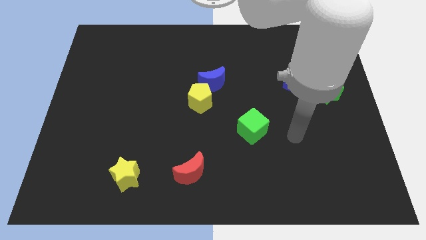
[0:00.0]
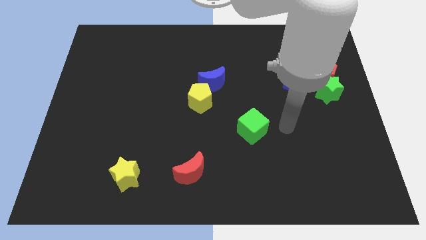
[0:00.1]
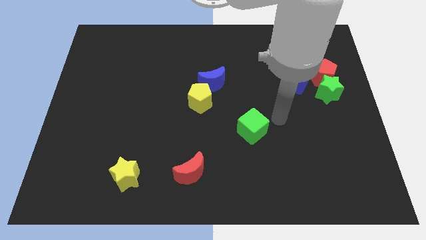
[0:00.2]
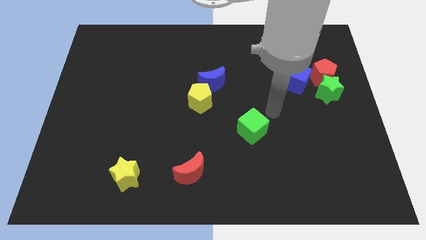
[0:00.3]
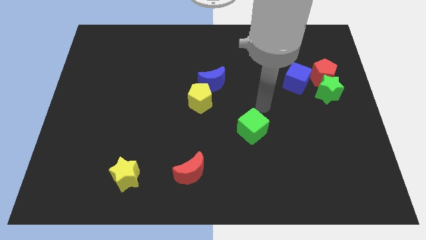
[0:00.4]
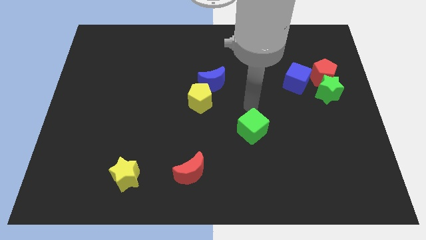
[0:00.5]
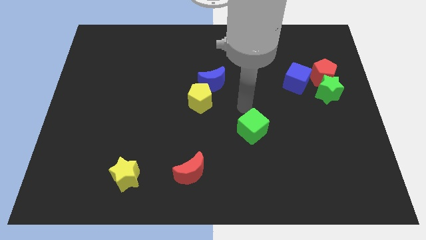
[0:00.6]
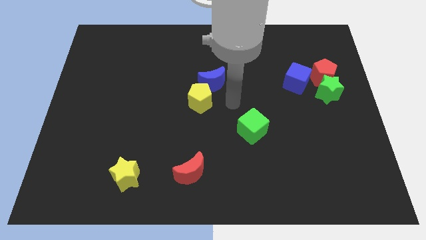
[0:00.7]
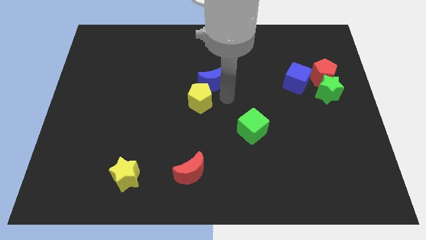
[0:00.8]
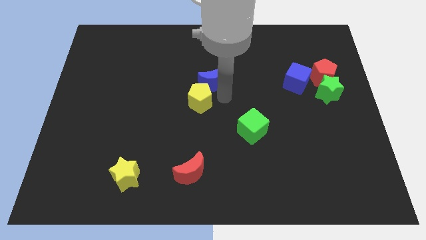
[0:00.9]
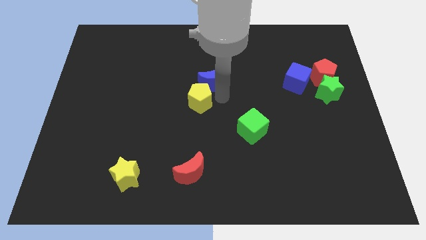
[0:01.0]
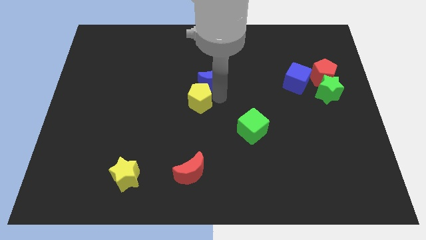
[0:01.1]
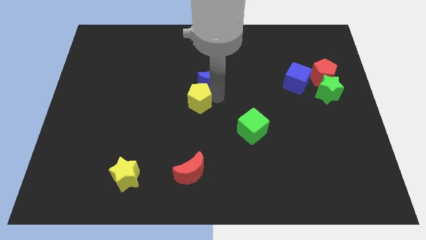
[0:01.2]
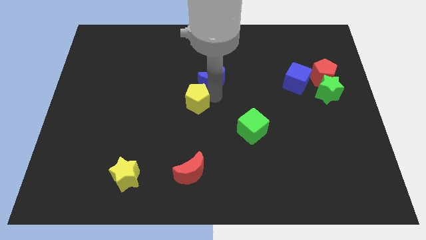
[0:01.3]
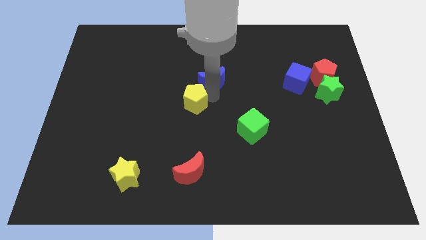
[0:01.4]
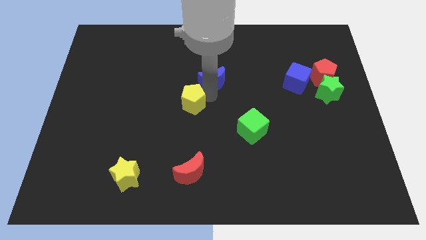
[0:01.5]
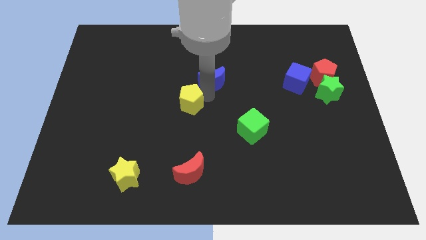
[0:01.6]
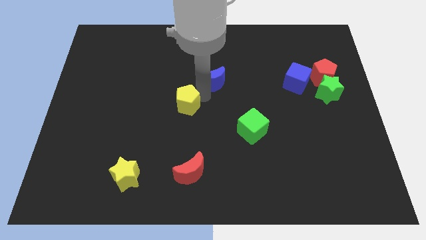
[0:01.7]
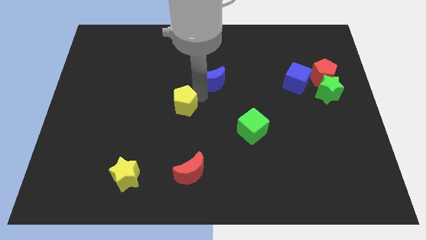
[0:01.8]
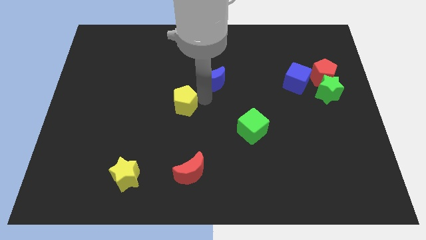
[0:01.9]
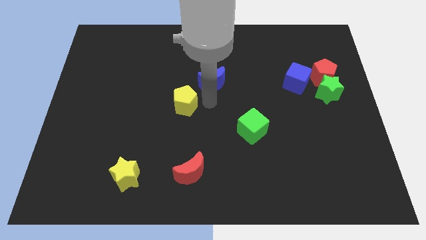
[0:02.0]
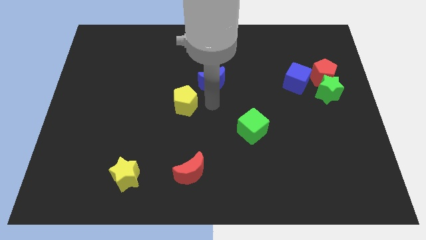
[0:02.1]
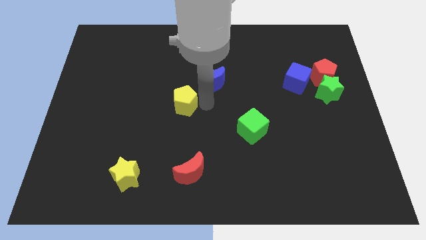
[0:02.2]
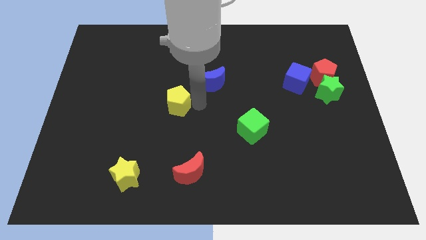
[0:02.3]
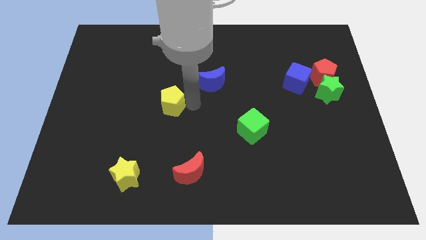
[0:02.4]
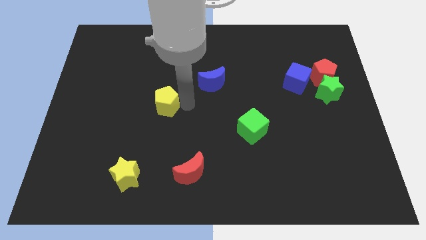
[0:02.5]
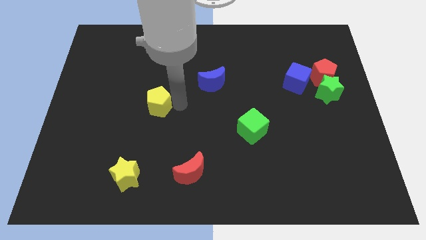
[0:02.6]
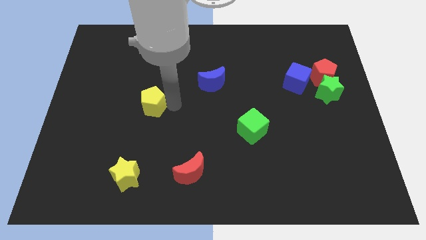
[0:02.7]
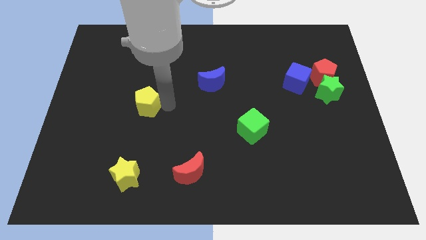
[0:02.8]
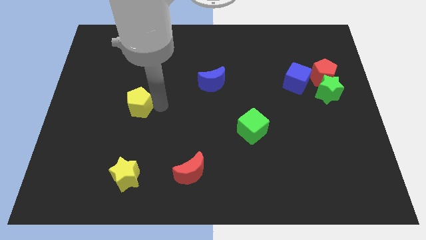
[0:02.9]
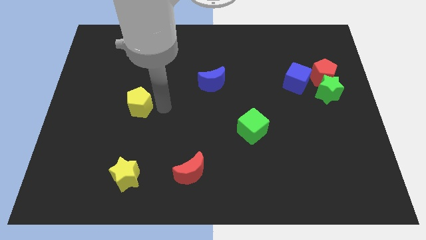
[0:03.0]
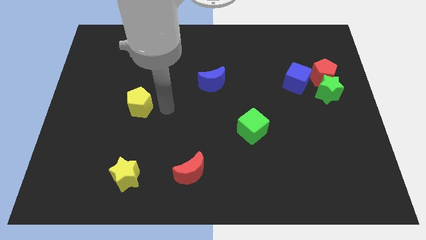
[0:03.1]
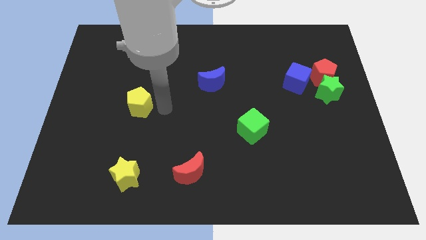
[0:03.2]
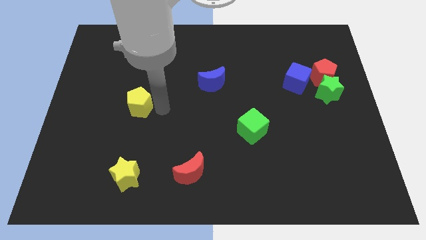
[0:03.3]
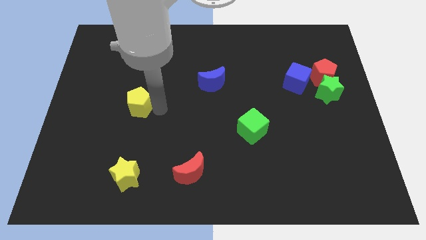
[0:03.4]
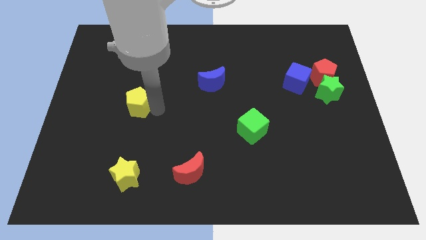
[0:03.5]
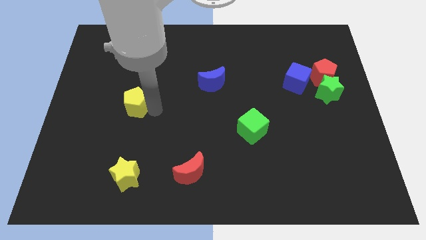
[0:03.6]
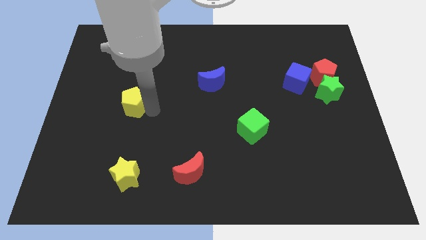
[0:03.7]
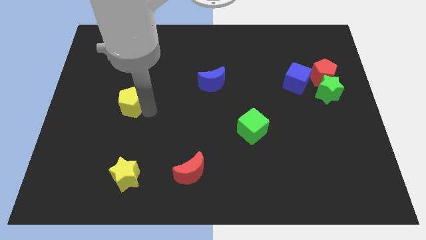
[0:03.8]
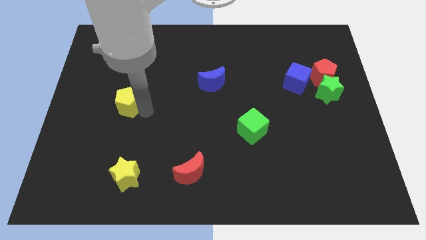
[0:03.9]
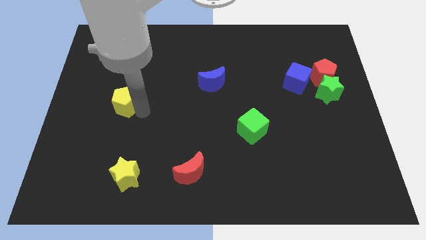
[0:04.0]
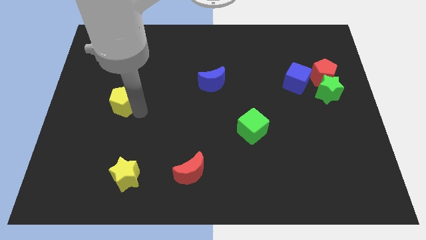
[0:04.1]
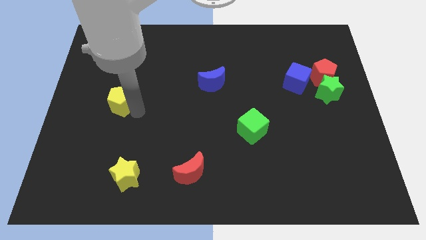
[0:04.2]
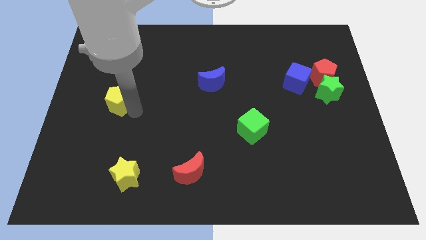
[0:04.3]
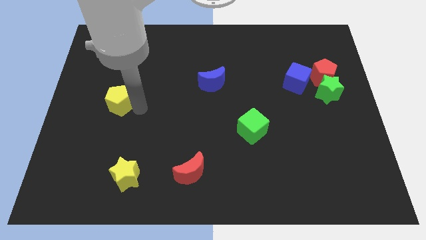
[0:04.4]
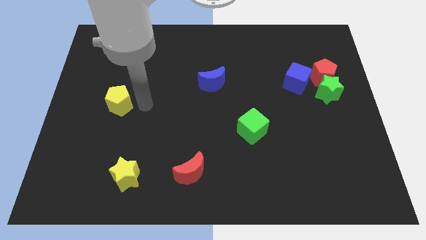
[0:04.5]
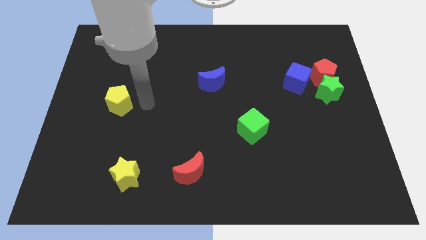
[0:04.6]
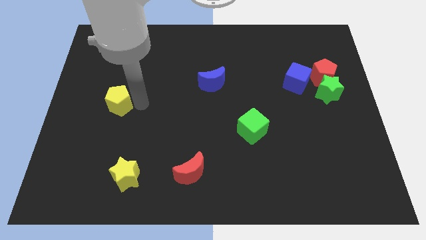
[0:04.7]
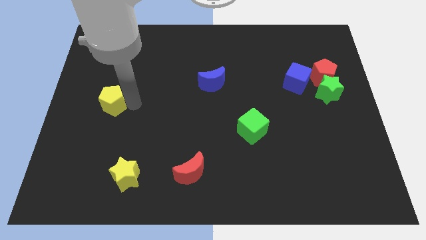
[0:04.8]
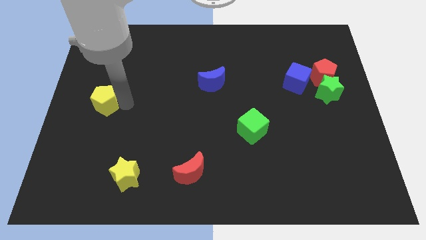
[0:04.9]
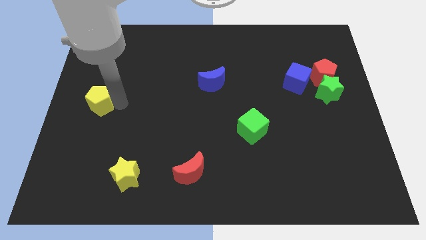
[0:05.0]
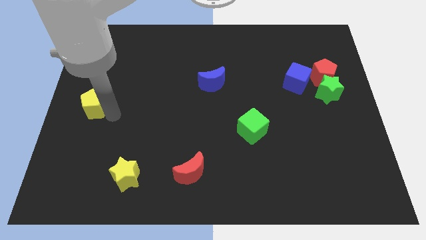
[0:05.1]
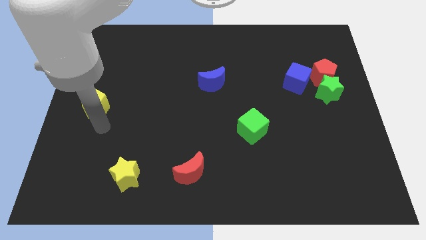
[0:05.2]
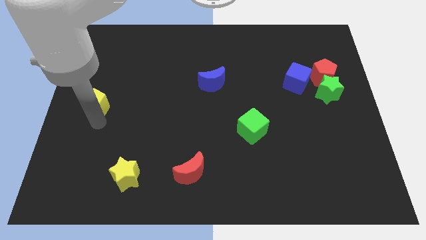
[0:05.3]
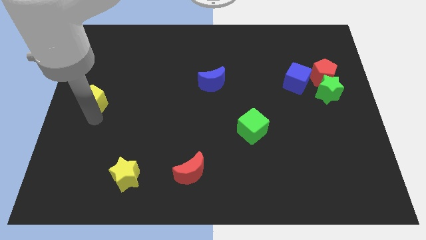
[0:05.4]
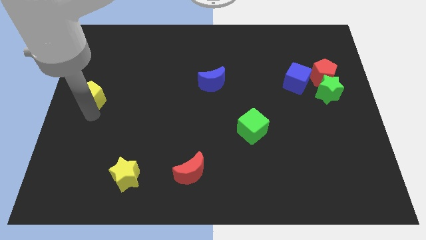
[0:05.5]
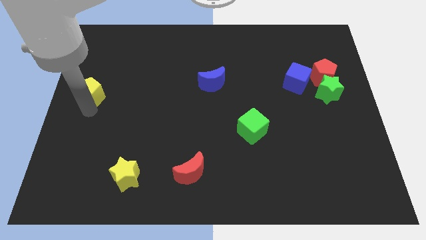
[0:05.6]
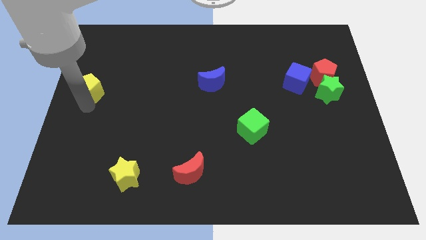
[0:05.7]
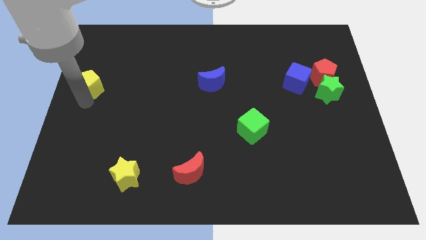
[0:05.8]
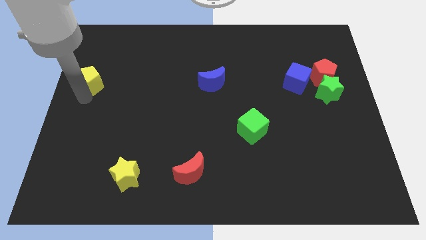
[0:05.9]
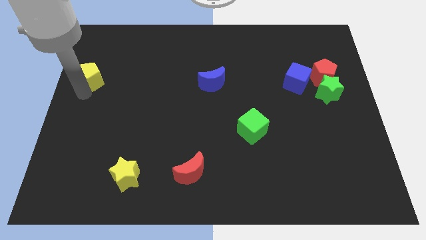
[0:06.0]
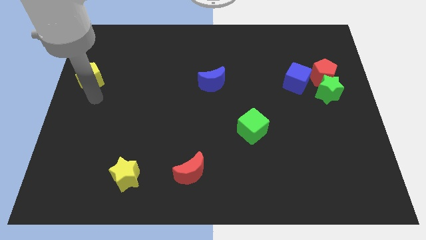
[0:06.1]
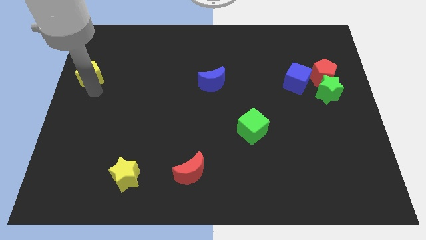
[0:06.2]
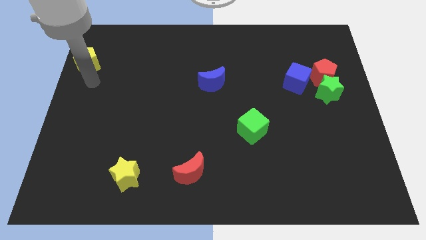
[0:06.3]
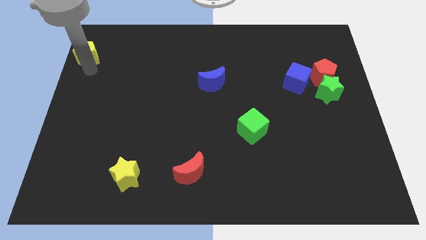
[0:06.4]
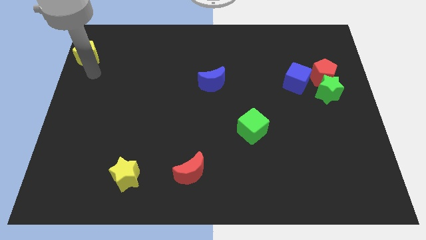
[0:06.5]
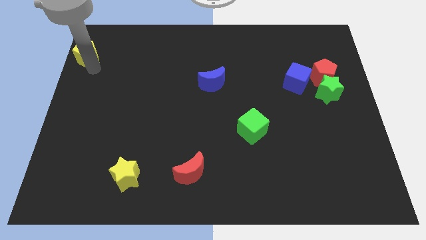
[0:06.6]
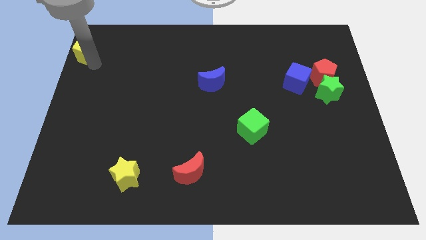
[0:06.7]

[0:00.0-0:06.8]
slide the yellow pentagon to the top left
